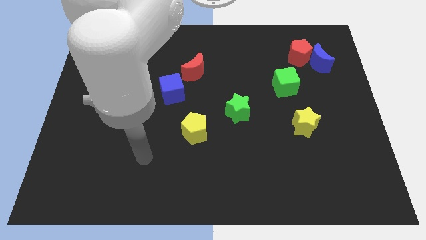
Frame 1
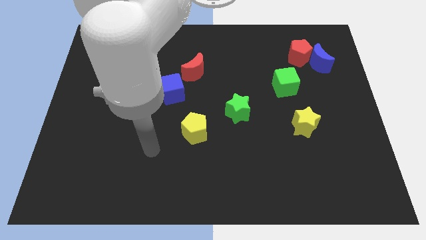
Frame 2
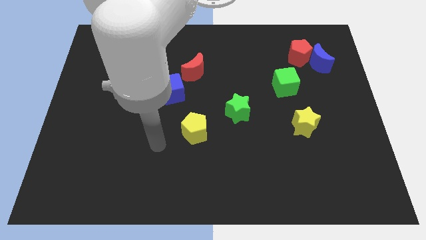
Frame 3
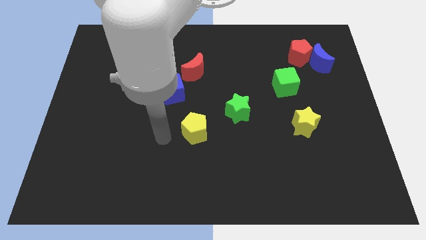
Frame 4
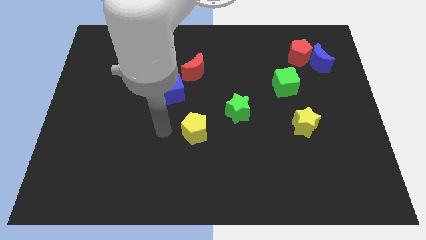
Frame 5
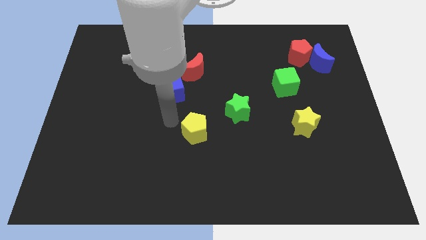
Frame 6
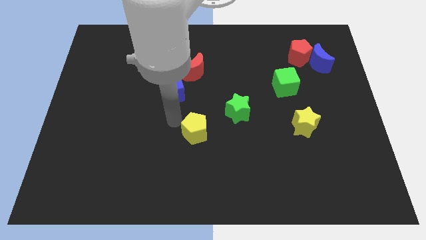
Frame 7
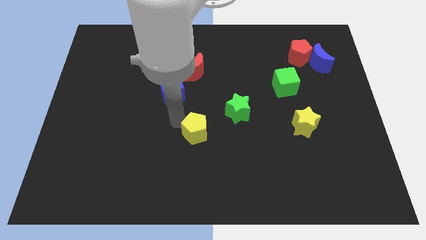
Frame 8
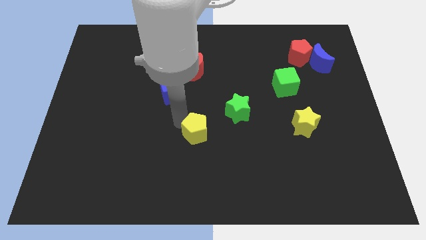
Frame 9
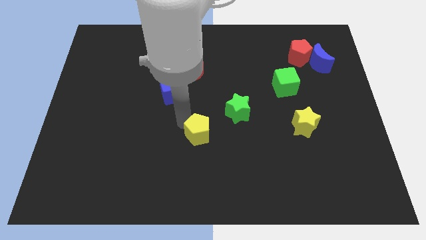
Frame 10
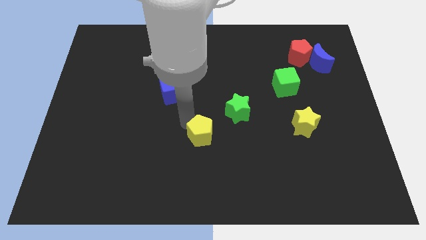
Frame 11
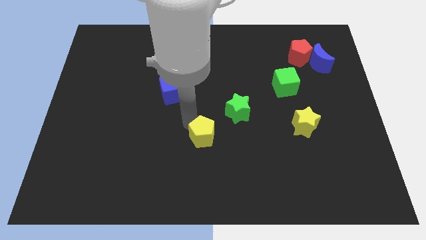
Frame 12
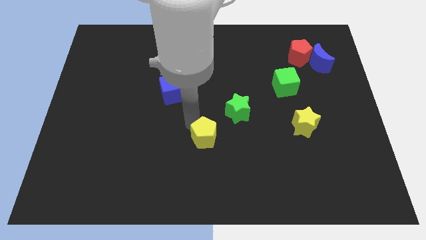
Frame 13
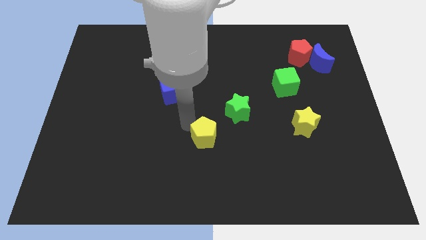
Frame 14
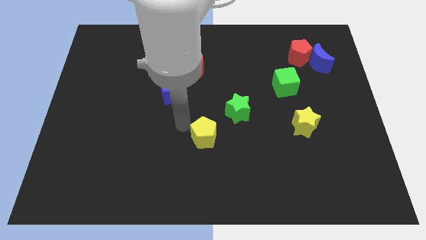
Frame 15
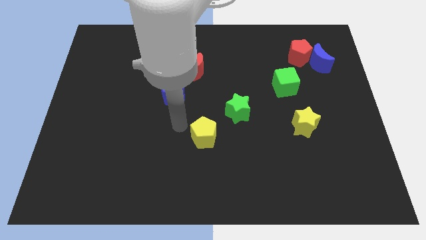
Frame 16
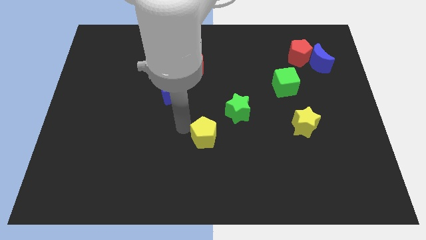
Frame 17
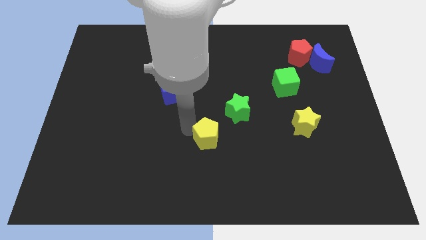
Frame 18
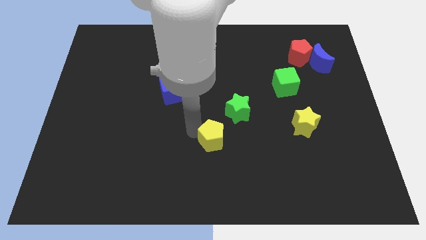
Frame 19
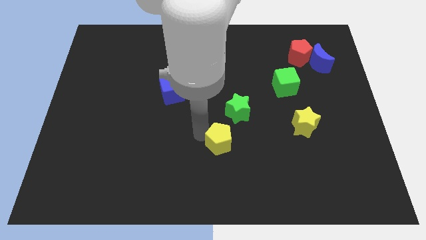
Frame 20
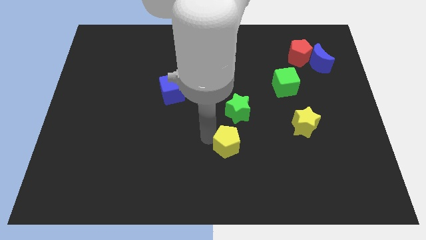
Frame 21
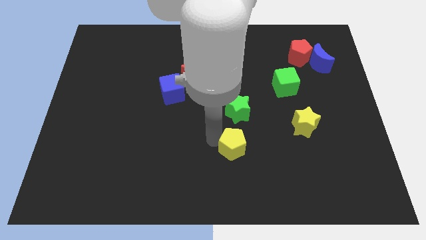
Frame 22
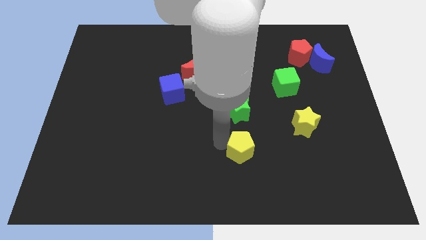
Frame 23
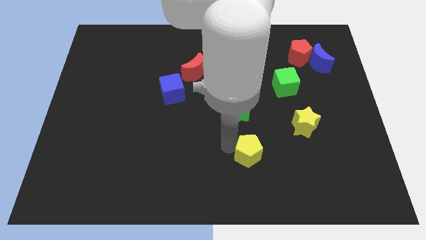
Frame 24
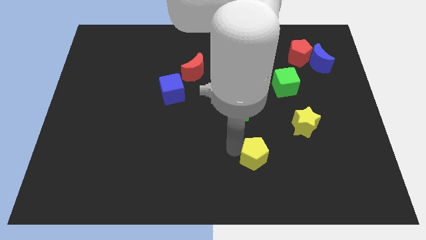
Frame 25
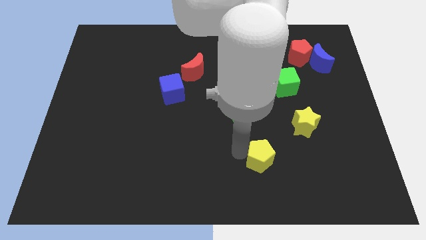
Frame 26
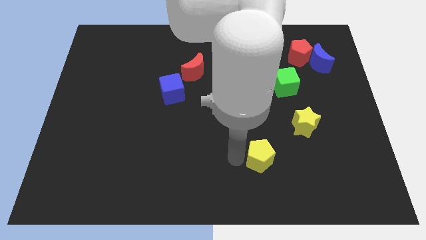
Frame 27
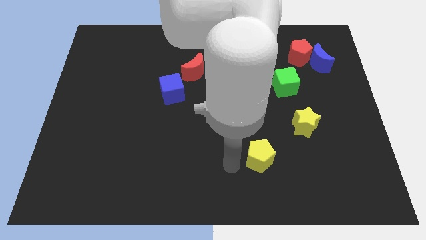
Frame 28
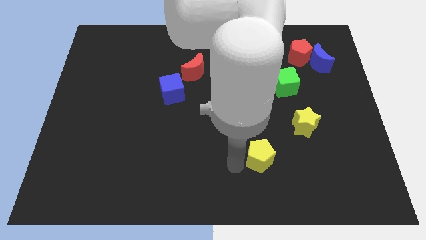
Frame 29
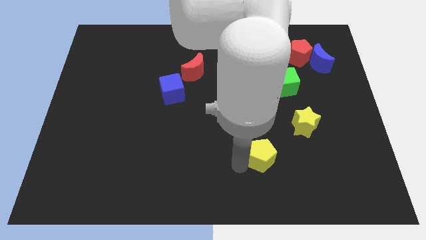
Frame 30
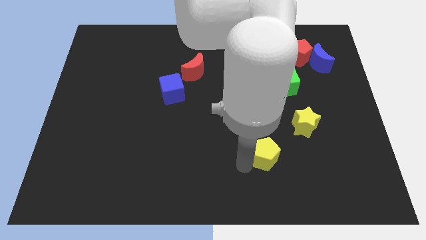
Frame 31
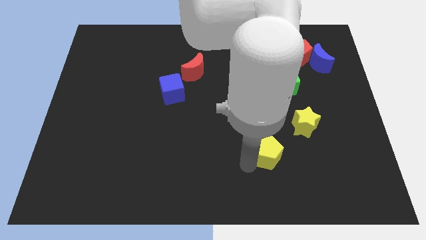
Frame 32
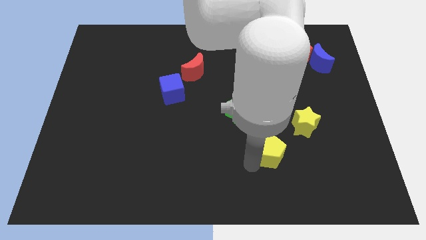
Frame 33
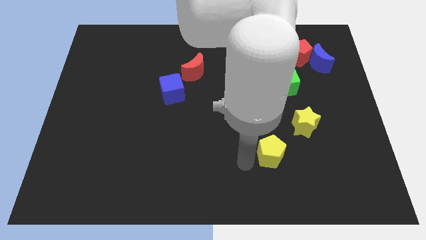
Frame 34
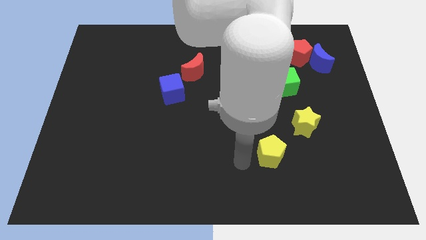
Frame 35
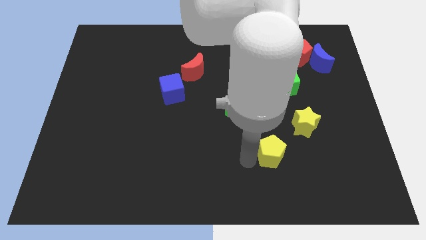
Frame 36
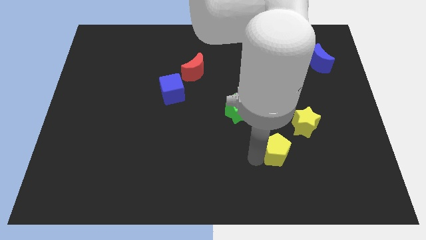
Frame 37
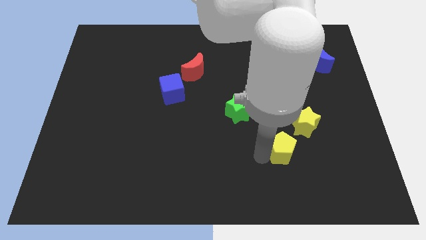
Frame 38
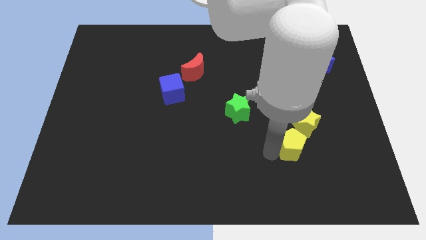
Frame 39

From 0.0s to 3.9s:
push the yellow pentagon right

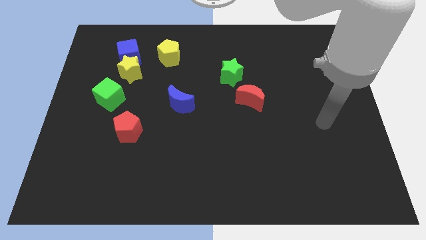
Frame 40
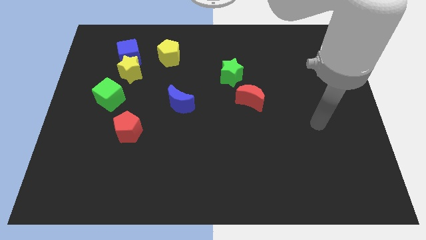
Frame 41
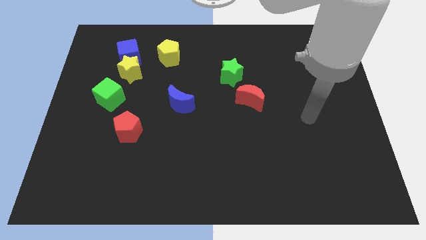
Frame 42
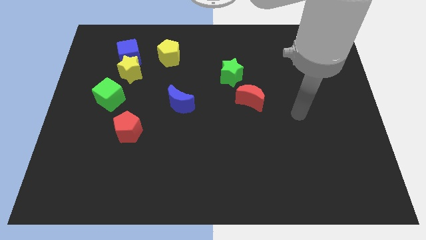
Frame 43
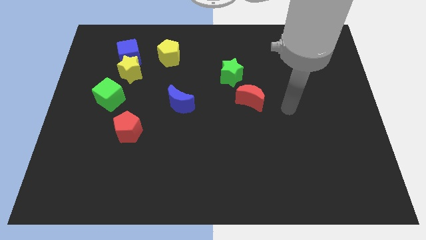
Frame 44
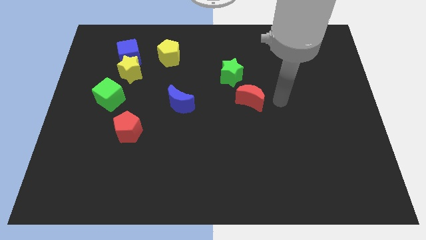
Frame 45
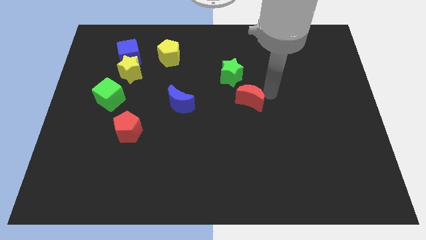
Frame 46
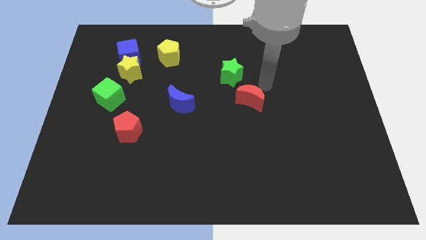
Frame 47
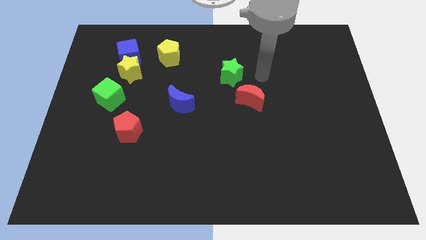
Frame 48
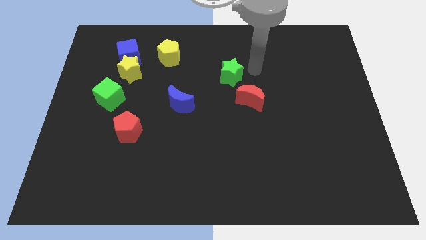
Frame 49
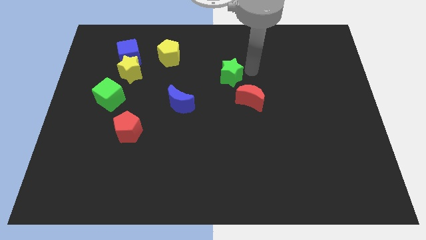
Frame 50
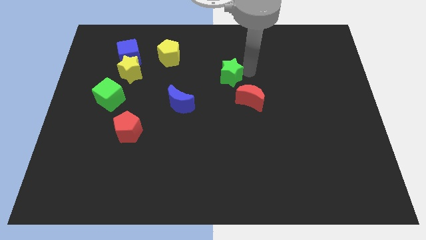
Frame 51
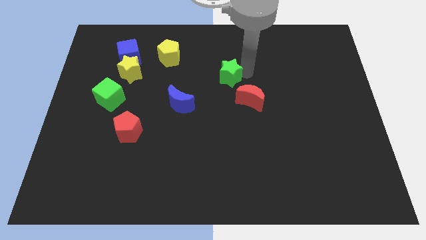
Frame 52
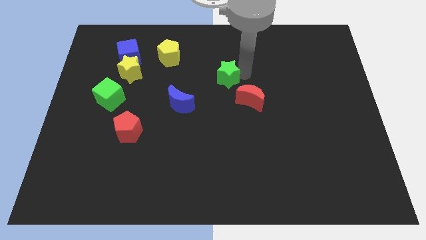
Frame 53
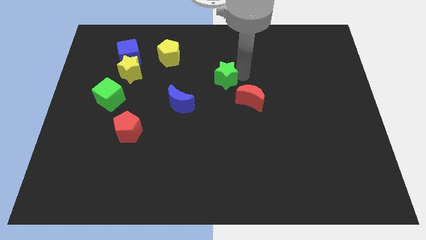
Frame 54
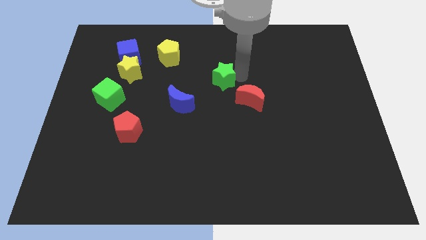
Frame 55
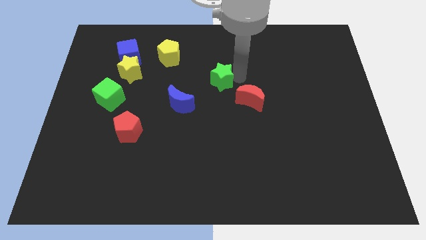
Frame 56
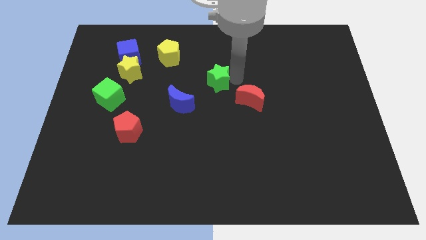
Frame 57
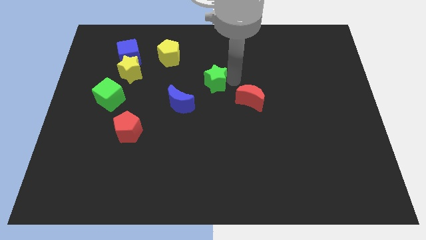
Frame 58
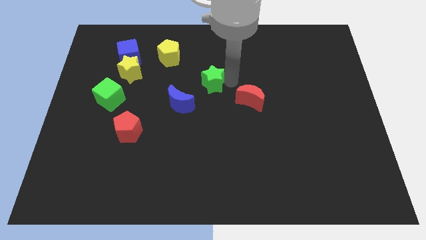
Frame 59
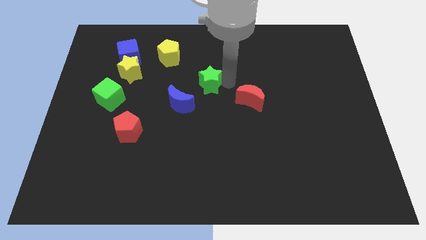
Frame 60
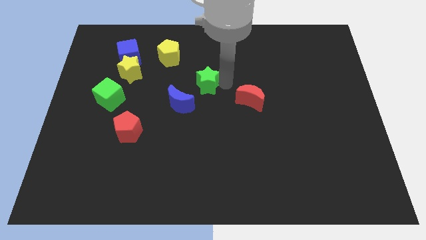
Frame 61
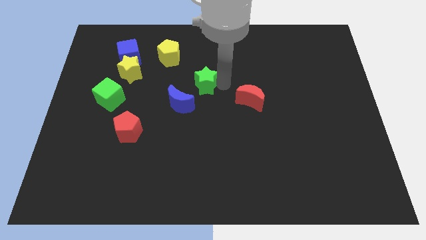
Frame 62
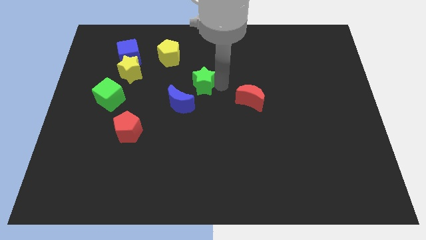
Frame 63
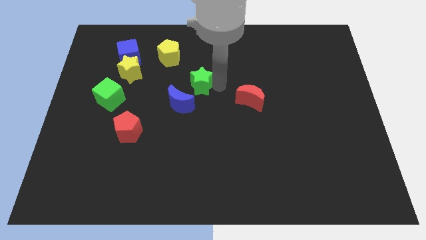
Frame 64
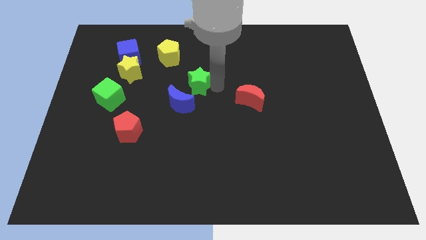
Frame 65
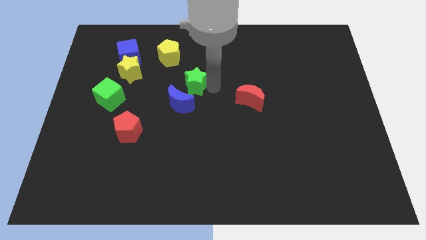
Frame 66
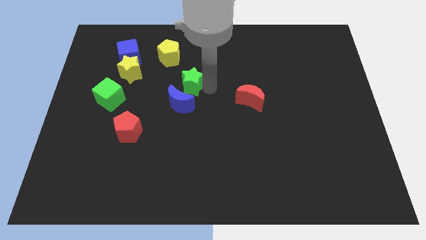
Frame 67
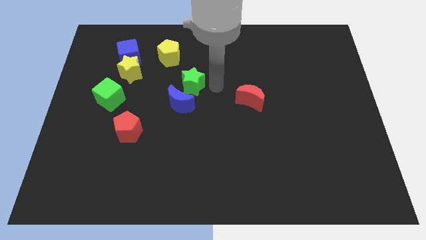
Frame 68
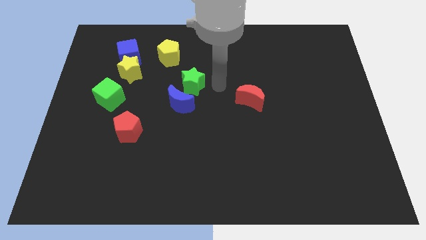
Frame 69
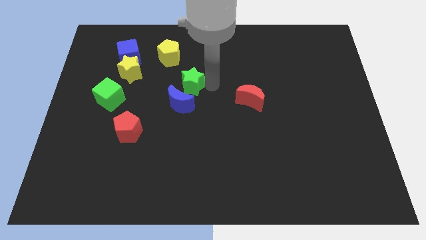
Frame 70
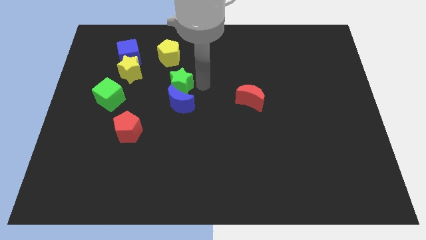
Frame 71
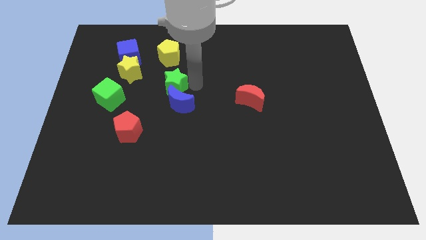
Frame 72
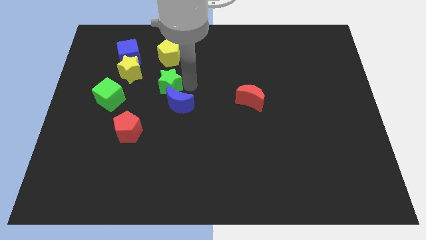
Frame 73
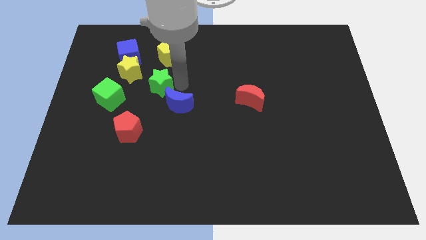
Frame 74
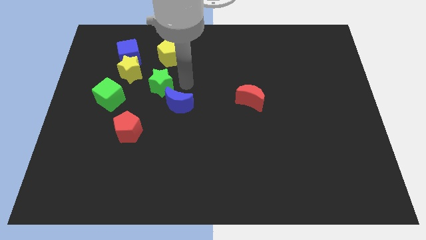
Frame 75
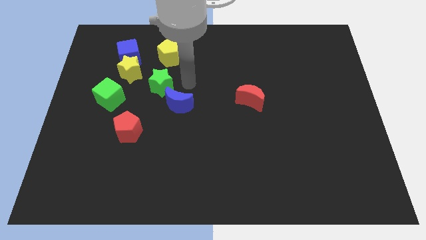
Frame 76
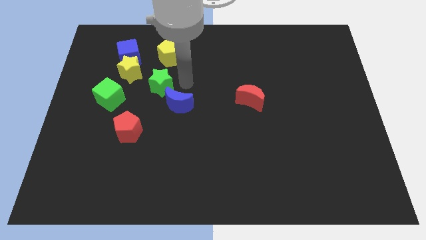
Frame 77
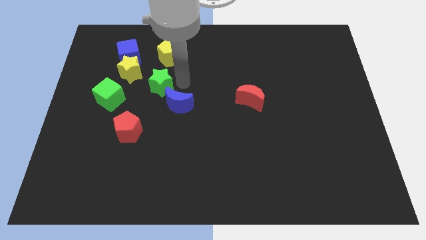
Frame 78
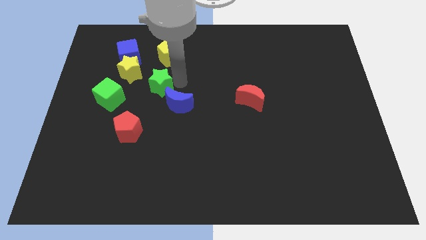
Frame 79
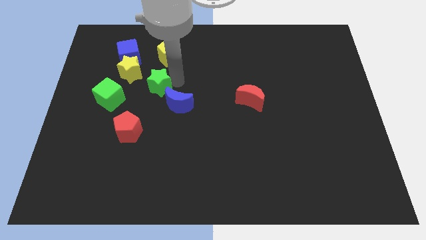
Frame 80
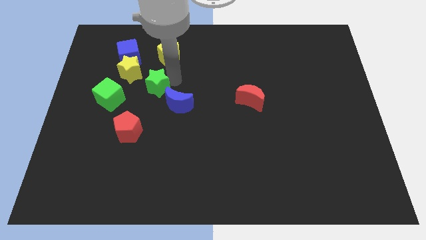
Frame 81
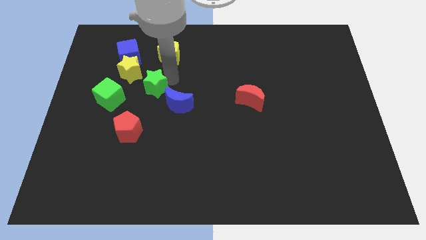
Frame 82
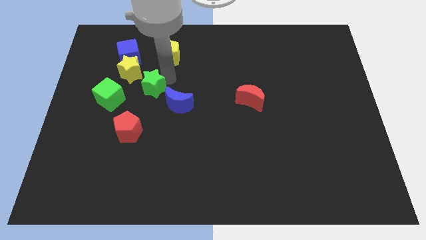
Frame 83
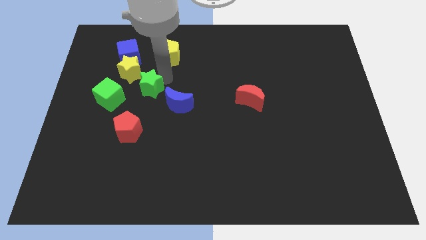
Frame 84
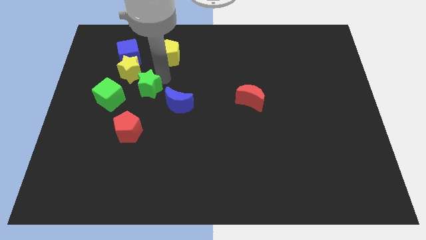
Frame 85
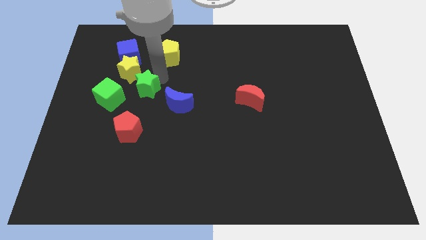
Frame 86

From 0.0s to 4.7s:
move the green star to the left
